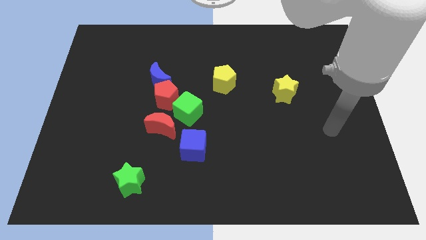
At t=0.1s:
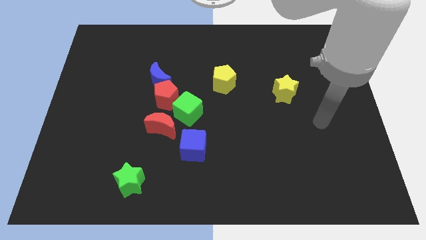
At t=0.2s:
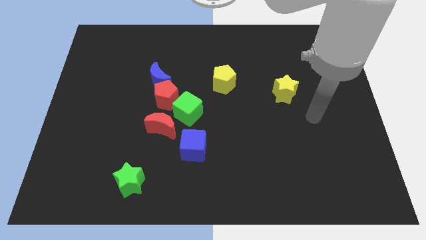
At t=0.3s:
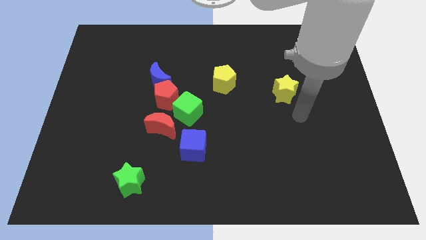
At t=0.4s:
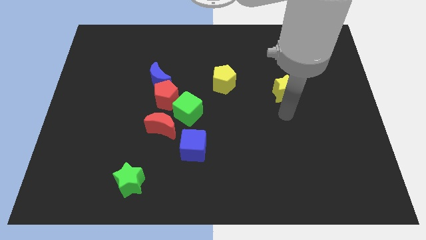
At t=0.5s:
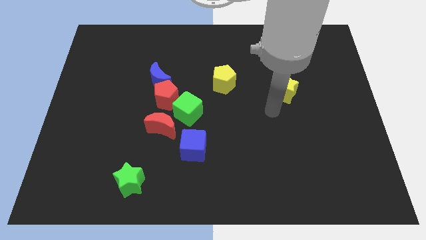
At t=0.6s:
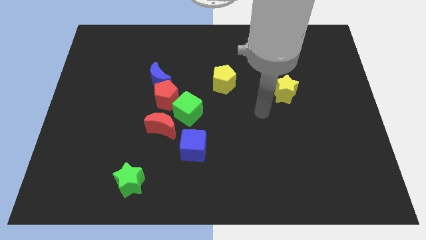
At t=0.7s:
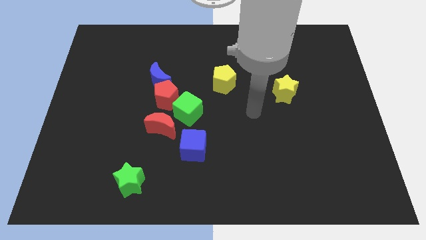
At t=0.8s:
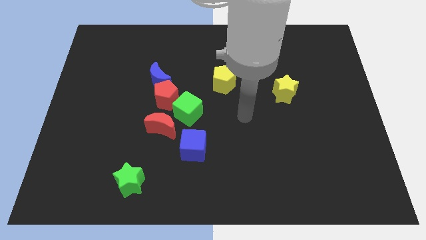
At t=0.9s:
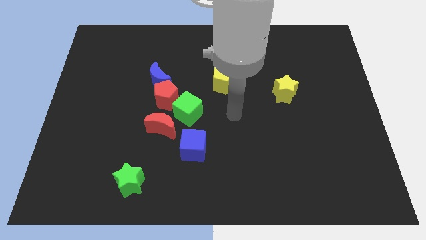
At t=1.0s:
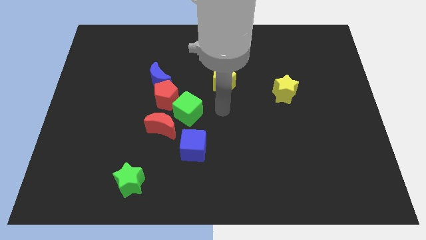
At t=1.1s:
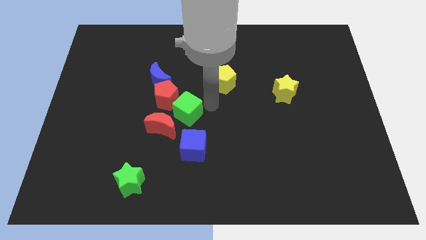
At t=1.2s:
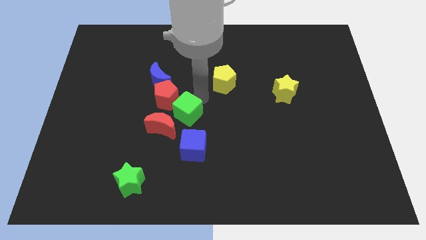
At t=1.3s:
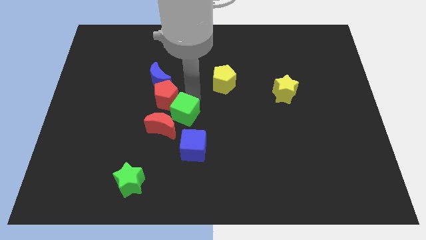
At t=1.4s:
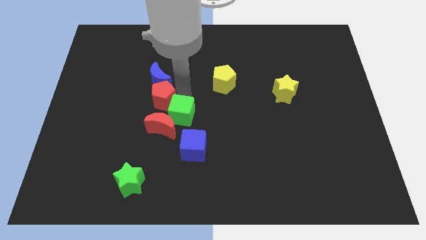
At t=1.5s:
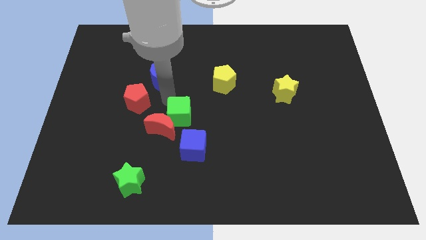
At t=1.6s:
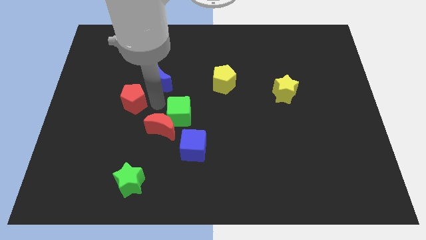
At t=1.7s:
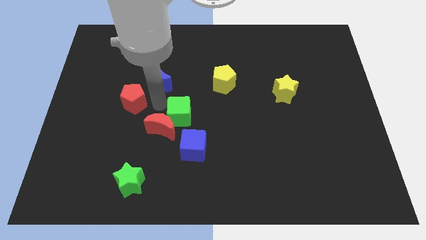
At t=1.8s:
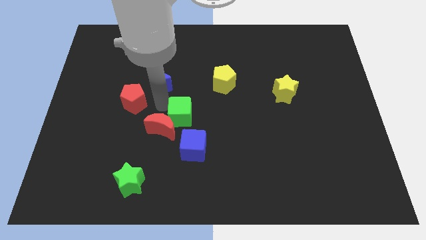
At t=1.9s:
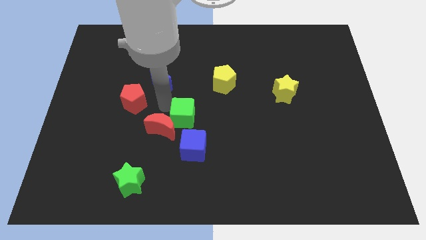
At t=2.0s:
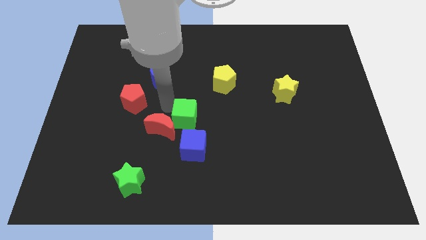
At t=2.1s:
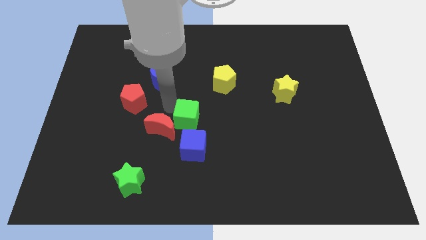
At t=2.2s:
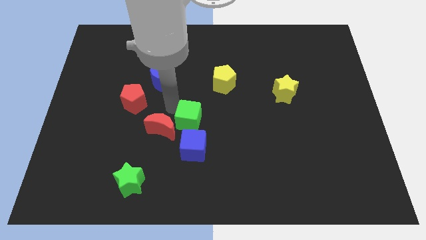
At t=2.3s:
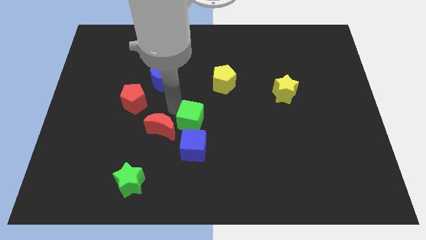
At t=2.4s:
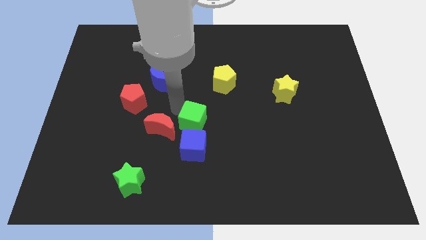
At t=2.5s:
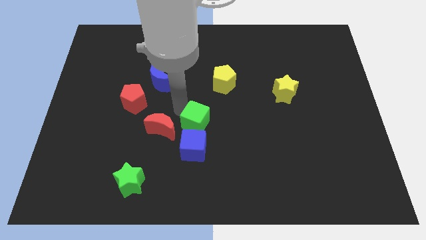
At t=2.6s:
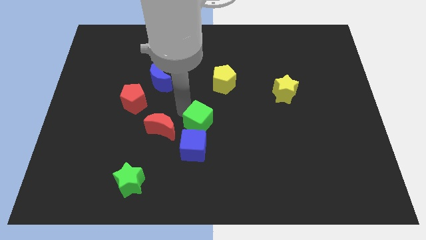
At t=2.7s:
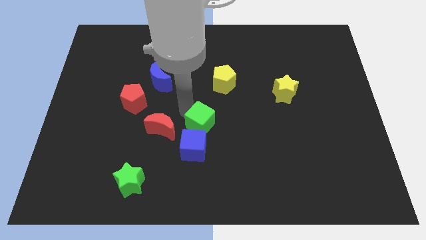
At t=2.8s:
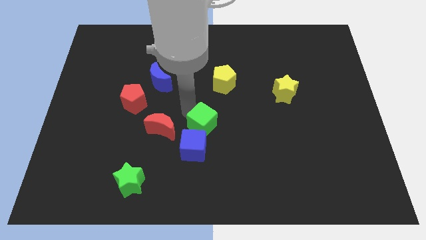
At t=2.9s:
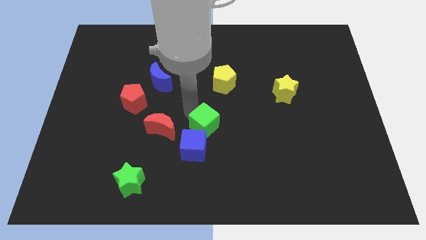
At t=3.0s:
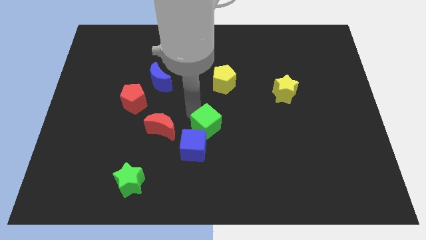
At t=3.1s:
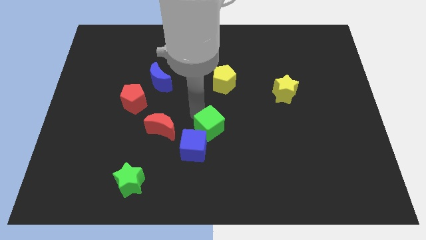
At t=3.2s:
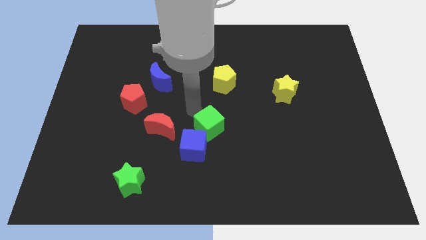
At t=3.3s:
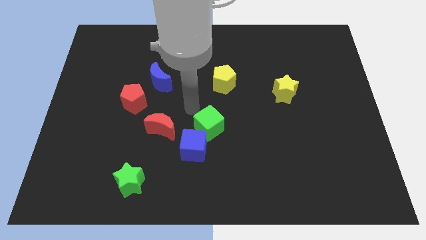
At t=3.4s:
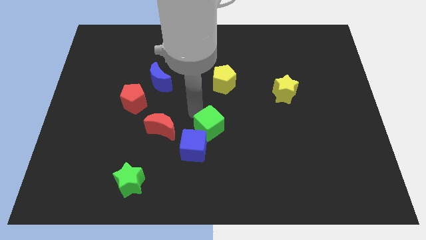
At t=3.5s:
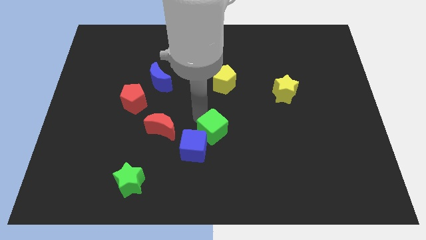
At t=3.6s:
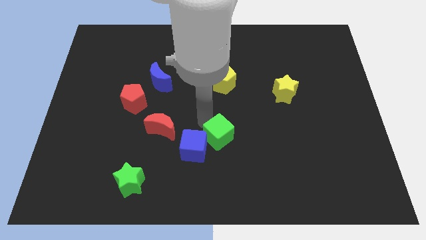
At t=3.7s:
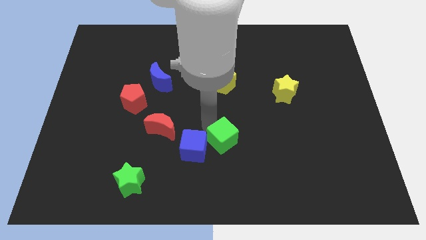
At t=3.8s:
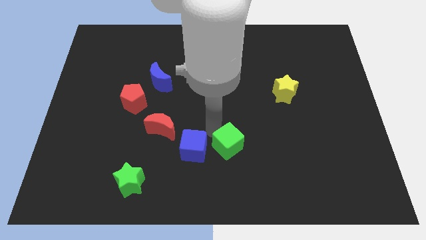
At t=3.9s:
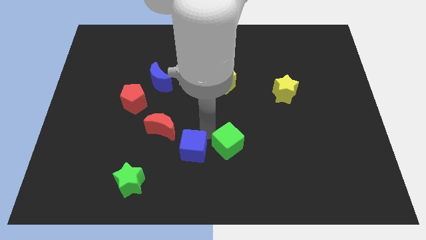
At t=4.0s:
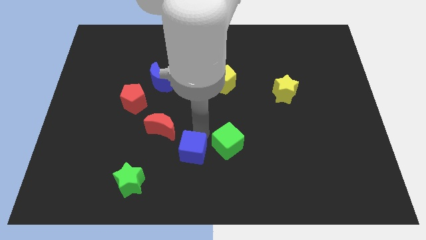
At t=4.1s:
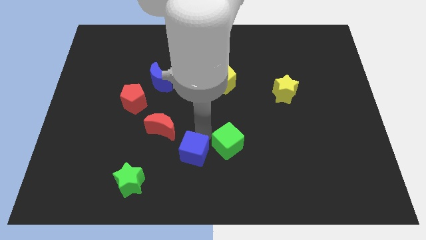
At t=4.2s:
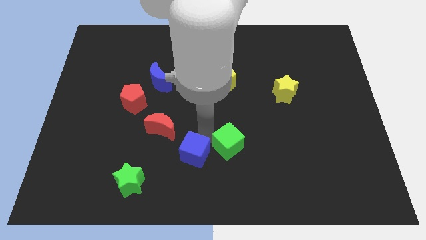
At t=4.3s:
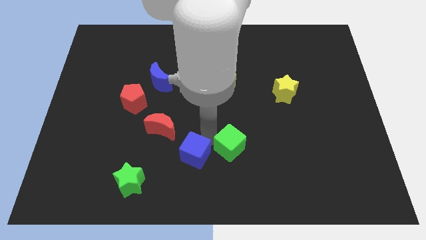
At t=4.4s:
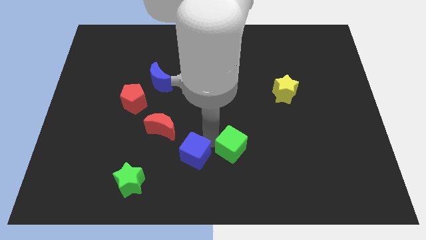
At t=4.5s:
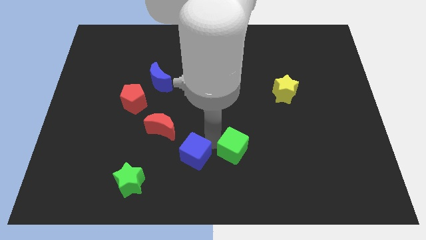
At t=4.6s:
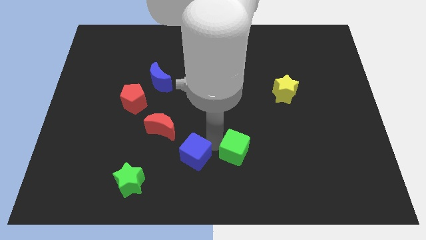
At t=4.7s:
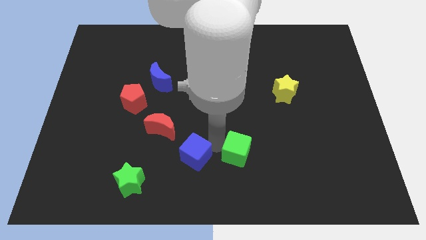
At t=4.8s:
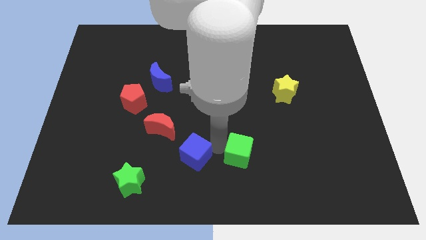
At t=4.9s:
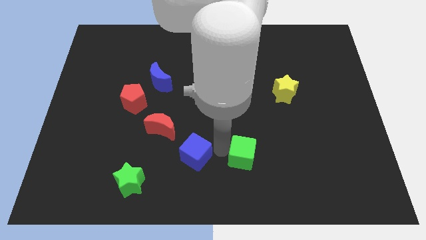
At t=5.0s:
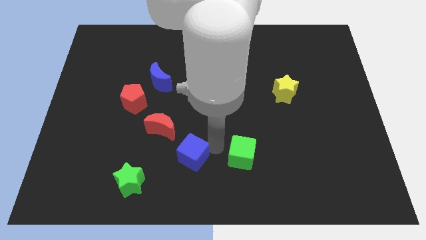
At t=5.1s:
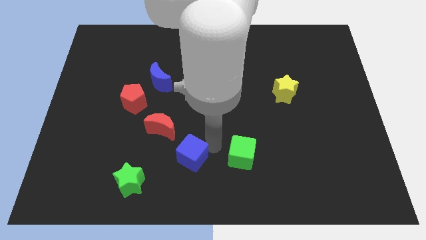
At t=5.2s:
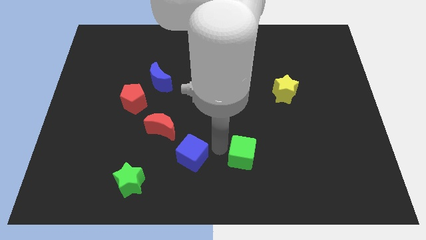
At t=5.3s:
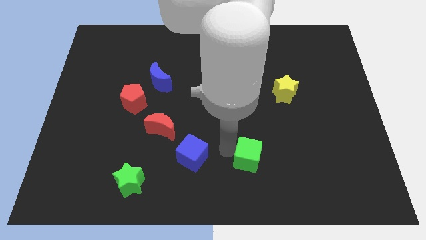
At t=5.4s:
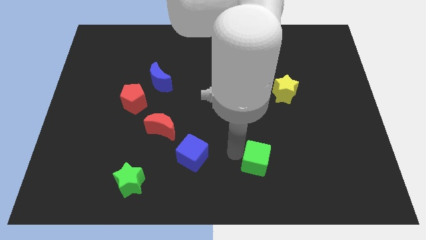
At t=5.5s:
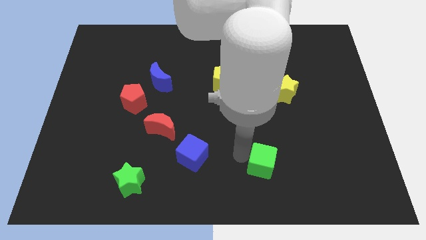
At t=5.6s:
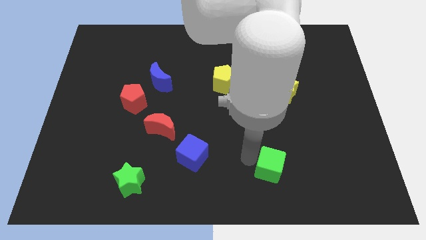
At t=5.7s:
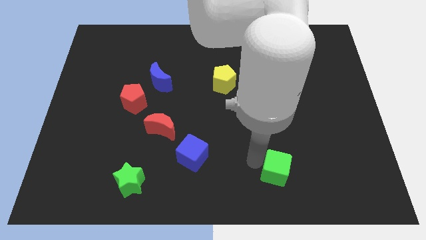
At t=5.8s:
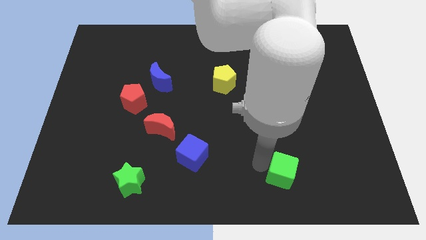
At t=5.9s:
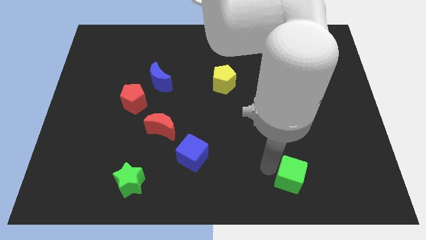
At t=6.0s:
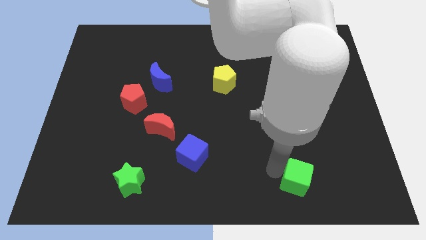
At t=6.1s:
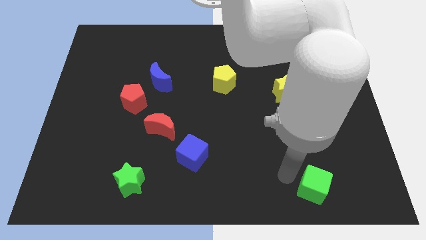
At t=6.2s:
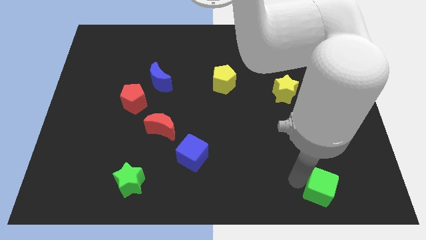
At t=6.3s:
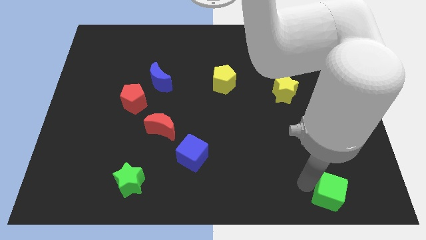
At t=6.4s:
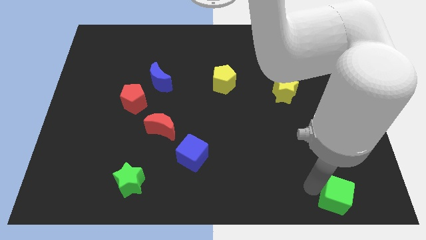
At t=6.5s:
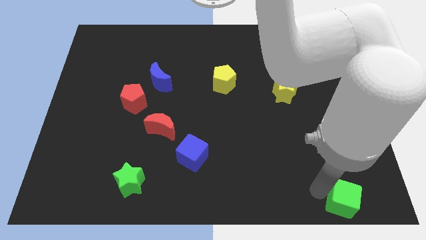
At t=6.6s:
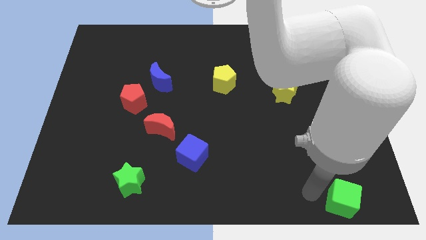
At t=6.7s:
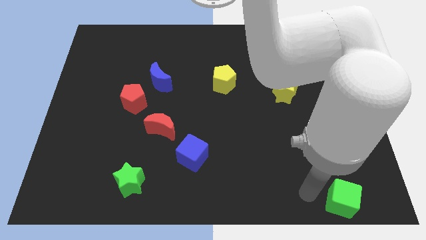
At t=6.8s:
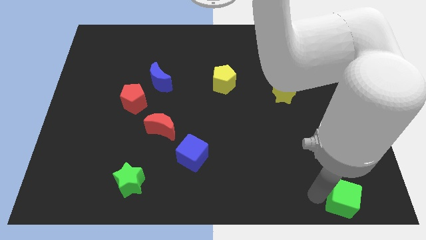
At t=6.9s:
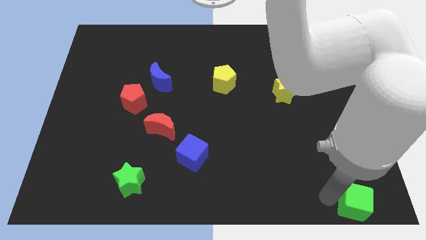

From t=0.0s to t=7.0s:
push the green cube to the lower right corner
